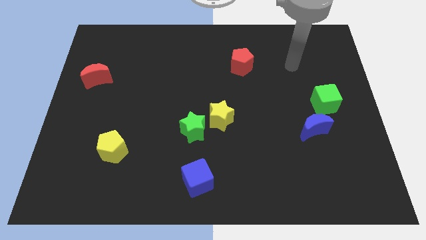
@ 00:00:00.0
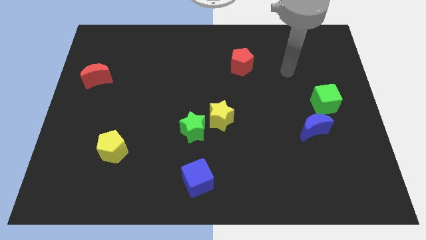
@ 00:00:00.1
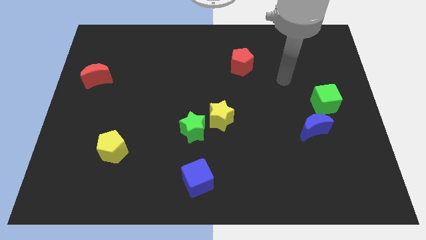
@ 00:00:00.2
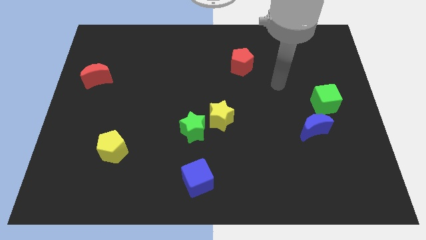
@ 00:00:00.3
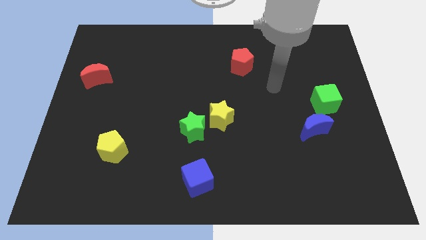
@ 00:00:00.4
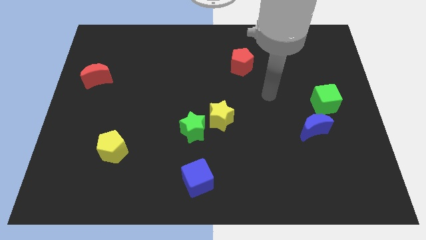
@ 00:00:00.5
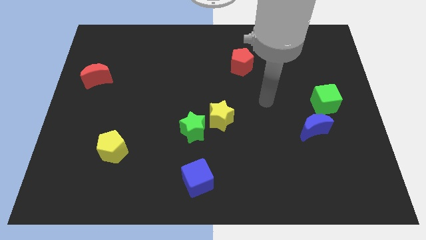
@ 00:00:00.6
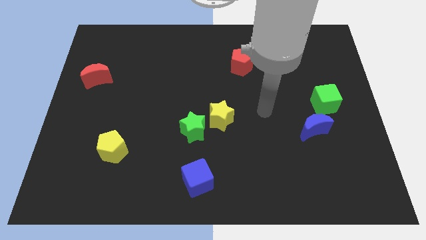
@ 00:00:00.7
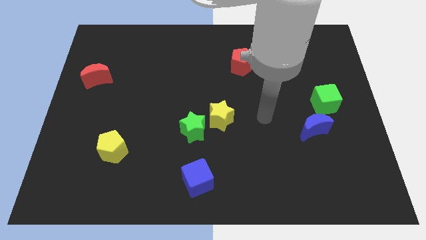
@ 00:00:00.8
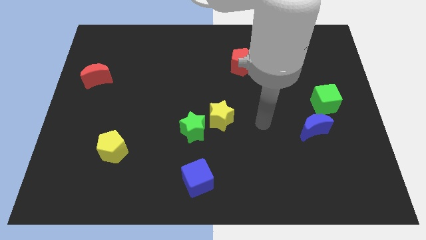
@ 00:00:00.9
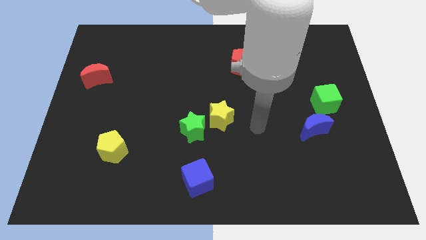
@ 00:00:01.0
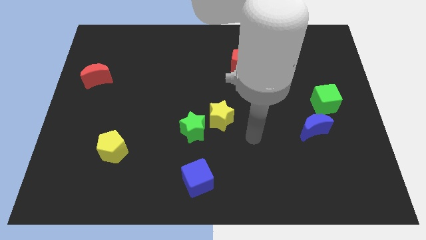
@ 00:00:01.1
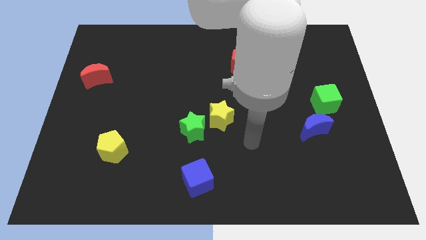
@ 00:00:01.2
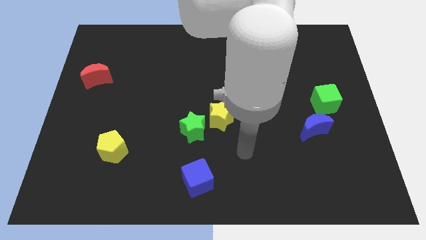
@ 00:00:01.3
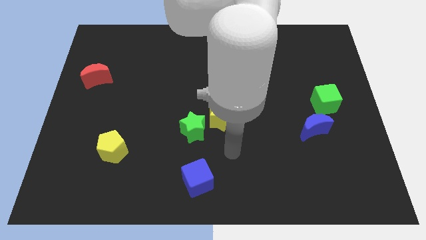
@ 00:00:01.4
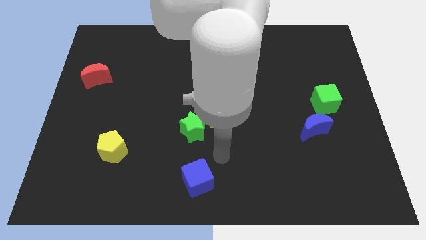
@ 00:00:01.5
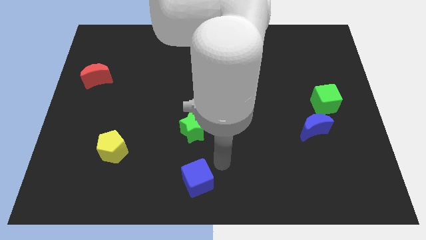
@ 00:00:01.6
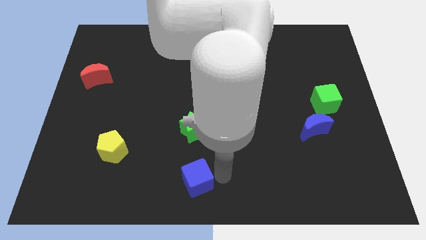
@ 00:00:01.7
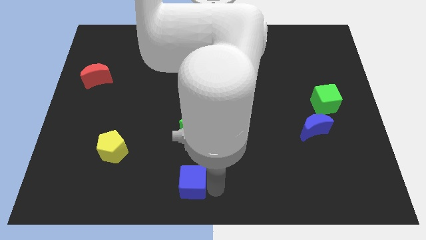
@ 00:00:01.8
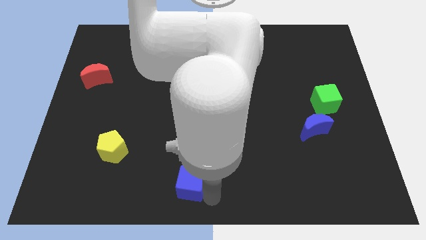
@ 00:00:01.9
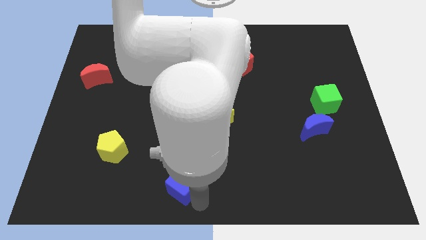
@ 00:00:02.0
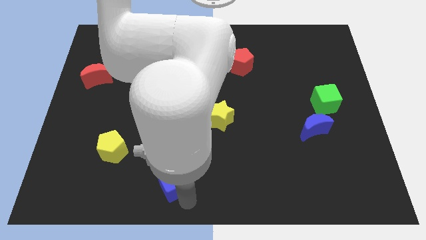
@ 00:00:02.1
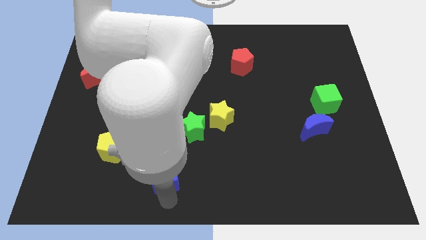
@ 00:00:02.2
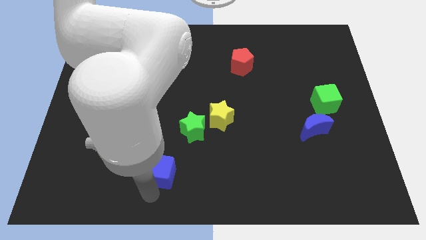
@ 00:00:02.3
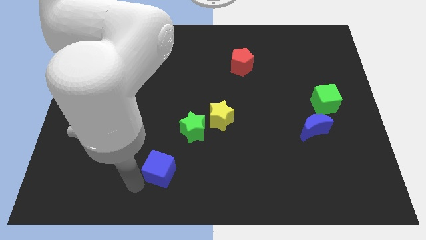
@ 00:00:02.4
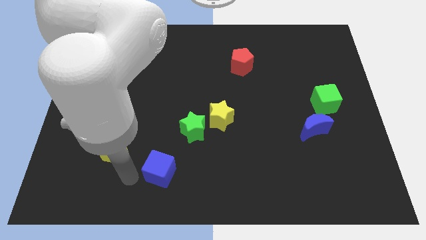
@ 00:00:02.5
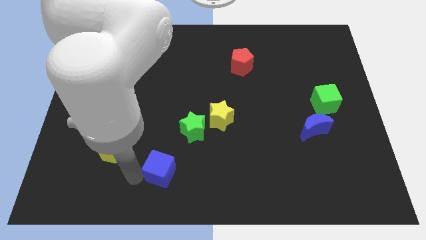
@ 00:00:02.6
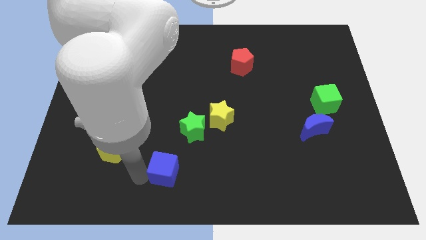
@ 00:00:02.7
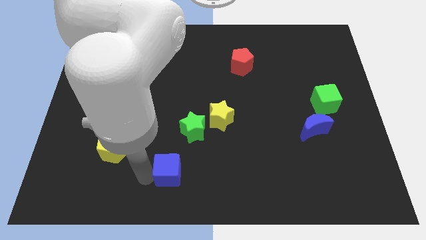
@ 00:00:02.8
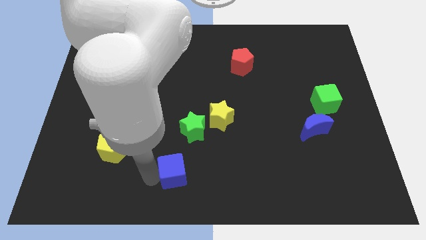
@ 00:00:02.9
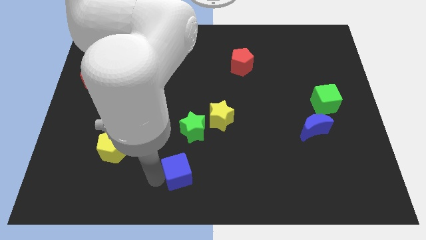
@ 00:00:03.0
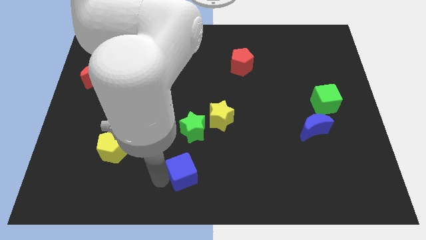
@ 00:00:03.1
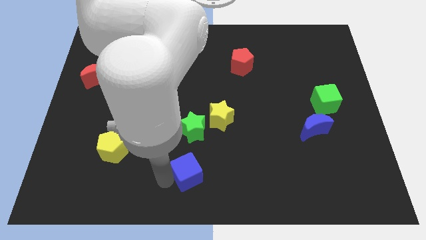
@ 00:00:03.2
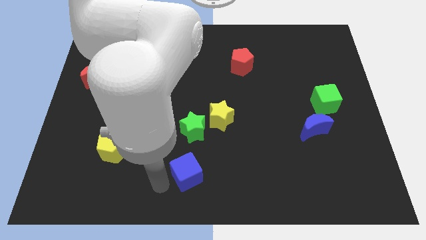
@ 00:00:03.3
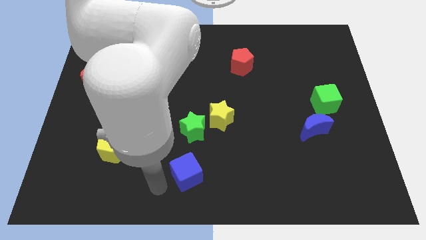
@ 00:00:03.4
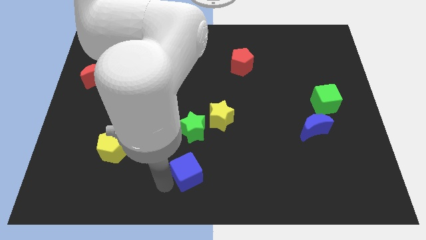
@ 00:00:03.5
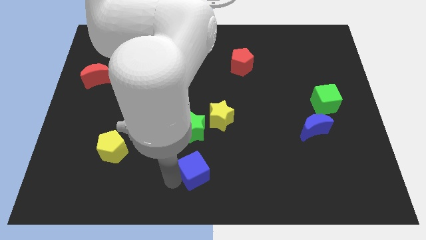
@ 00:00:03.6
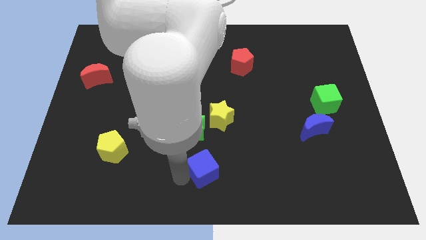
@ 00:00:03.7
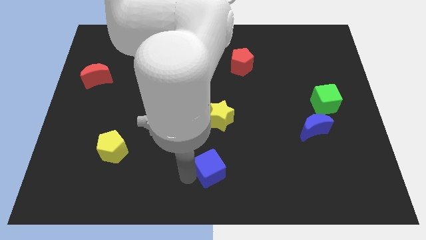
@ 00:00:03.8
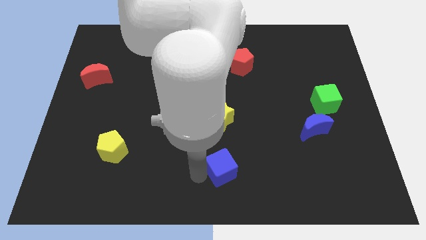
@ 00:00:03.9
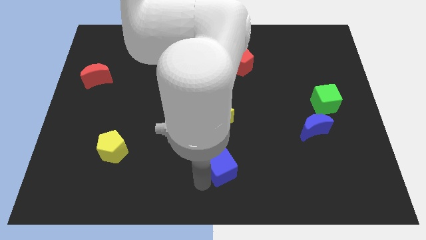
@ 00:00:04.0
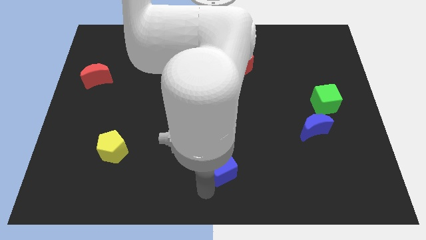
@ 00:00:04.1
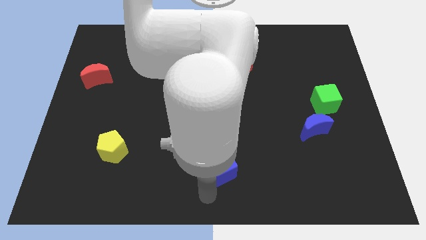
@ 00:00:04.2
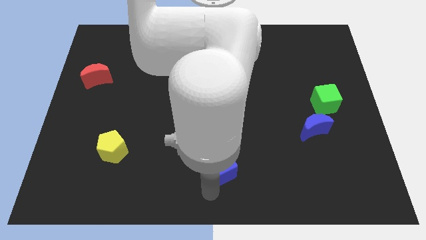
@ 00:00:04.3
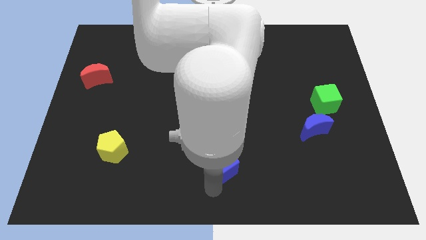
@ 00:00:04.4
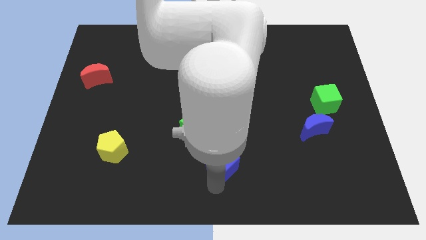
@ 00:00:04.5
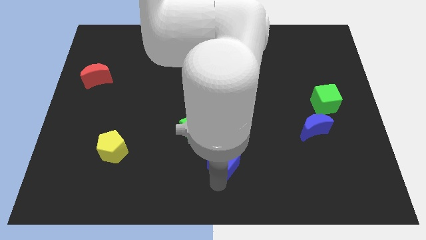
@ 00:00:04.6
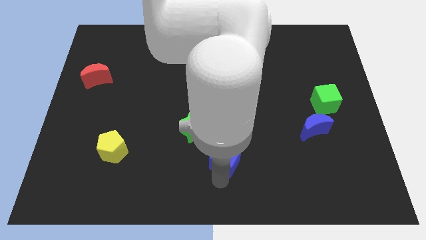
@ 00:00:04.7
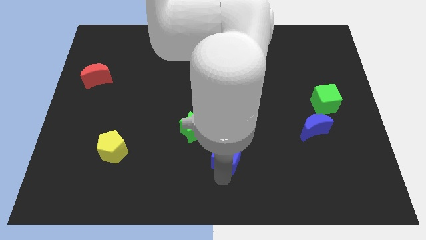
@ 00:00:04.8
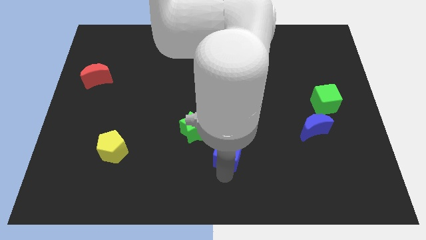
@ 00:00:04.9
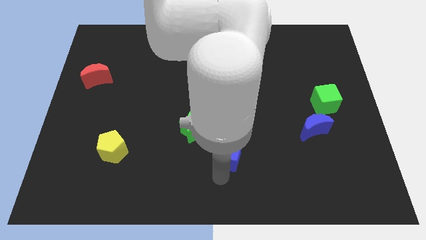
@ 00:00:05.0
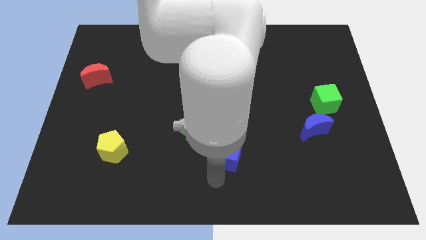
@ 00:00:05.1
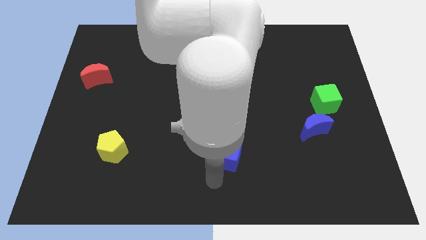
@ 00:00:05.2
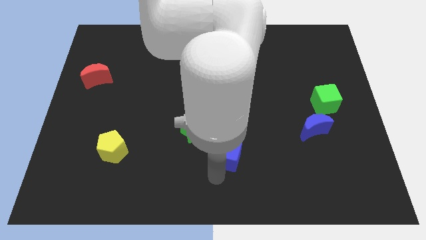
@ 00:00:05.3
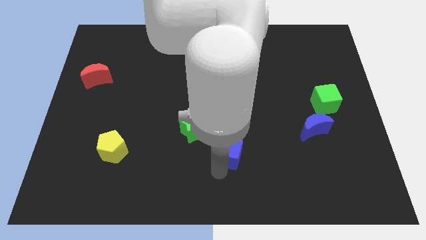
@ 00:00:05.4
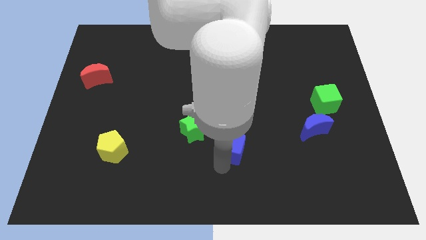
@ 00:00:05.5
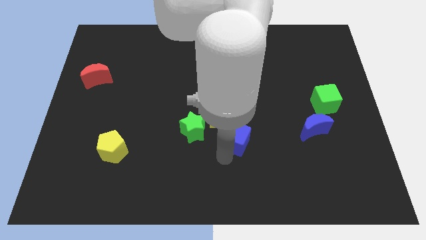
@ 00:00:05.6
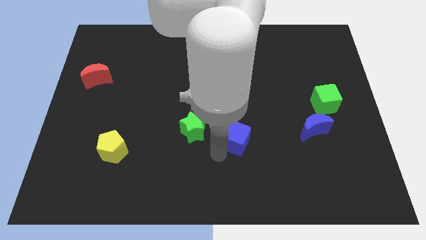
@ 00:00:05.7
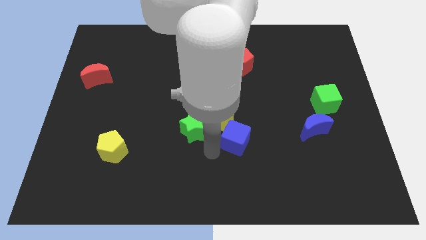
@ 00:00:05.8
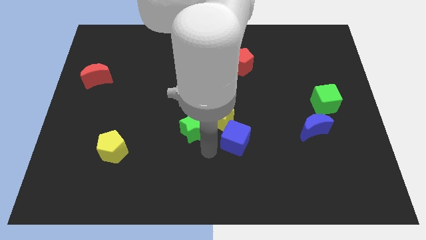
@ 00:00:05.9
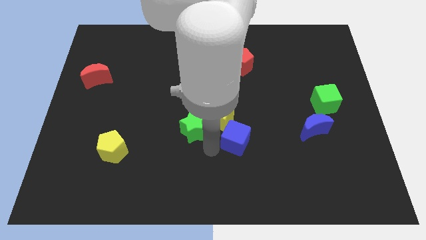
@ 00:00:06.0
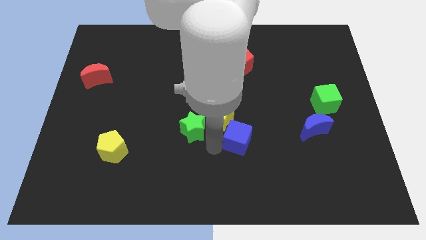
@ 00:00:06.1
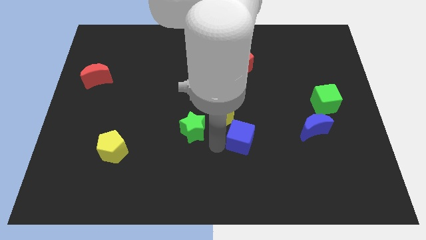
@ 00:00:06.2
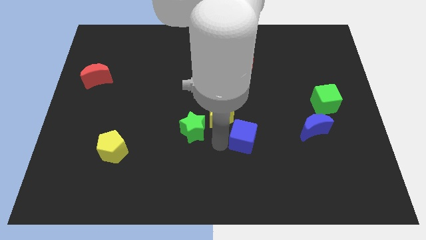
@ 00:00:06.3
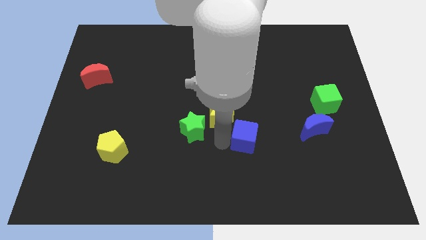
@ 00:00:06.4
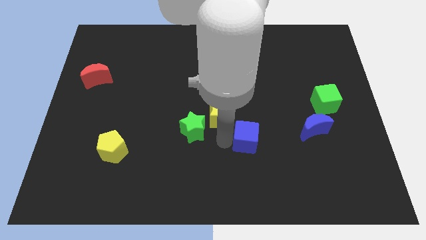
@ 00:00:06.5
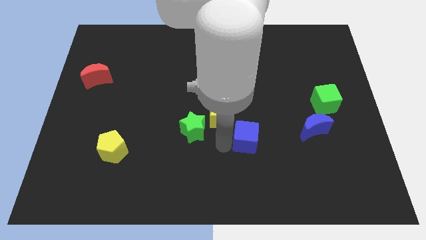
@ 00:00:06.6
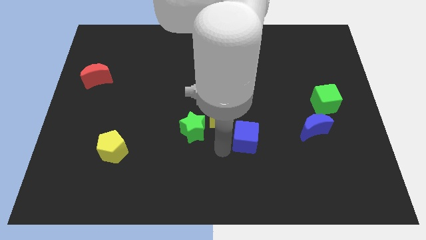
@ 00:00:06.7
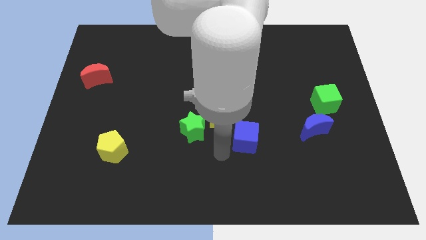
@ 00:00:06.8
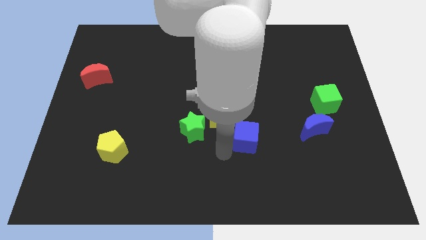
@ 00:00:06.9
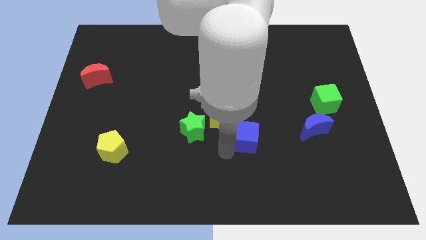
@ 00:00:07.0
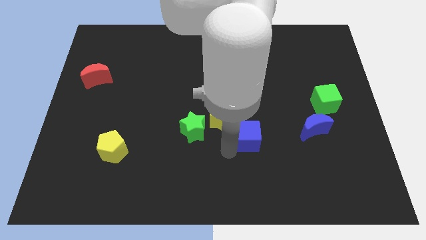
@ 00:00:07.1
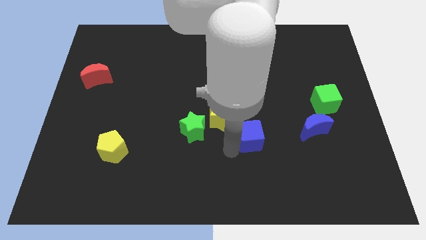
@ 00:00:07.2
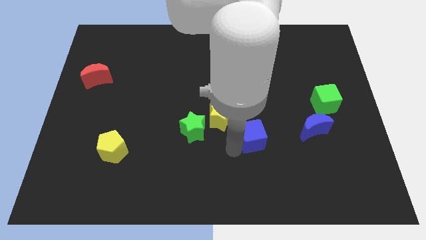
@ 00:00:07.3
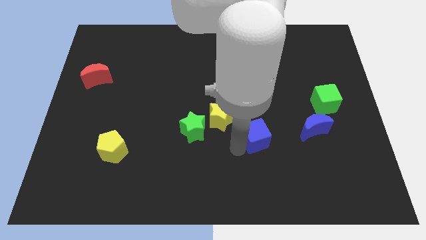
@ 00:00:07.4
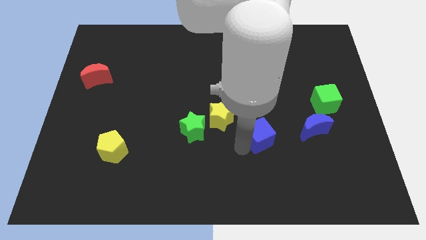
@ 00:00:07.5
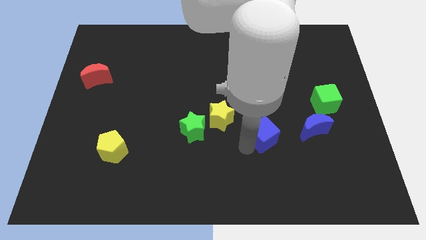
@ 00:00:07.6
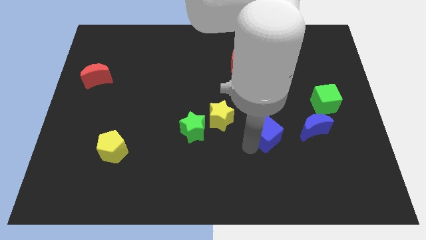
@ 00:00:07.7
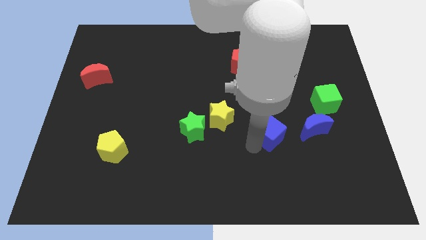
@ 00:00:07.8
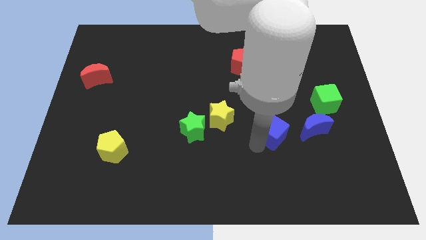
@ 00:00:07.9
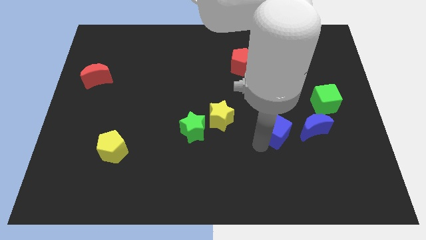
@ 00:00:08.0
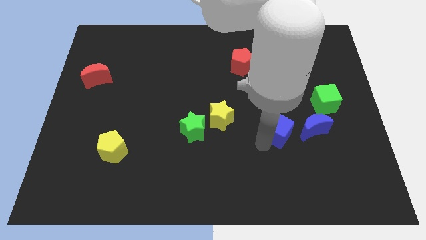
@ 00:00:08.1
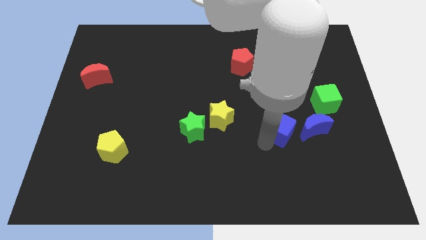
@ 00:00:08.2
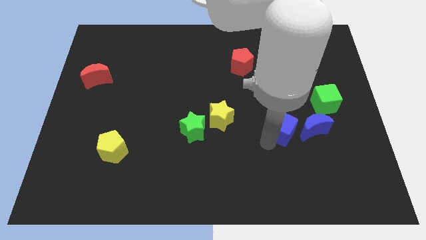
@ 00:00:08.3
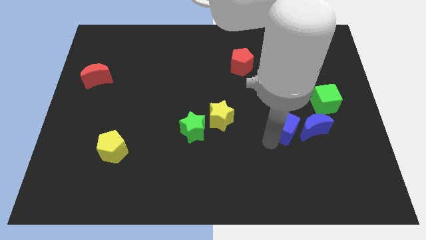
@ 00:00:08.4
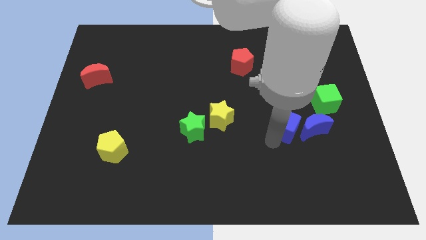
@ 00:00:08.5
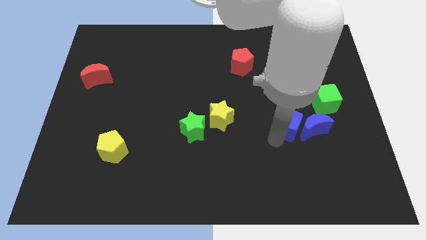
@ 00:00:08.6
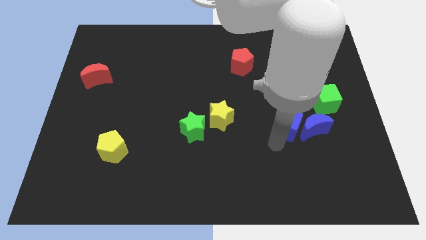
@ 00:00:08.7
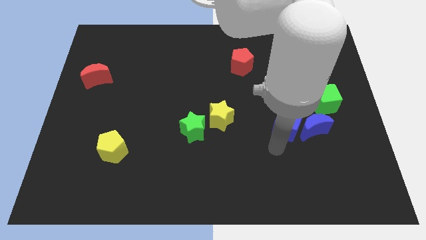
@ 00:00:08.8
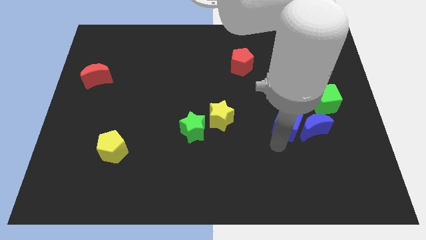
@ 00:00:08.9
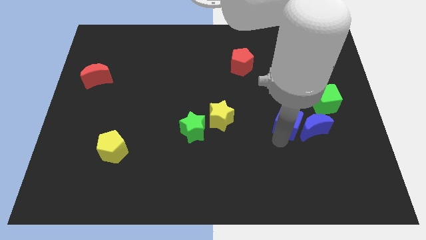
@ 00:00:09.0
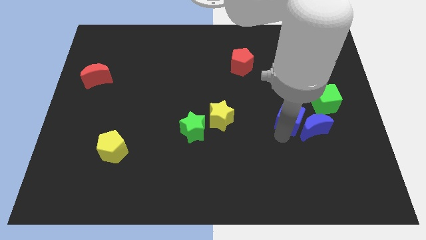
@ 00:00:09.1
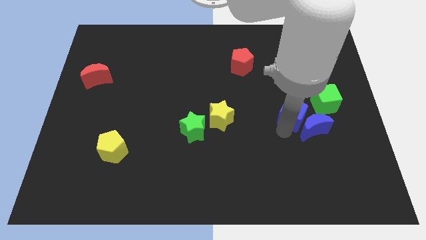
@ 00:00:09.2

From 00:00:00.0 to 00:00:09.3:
slide the blue cube to the top side of the blue moon
